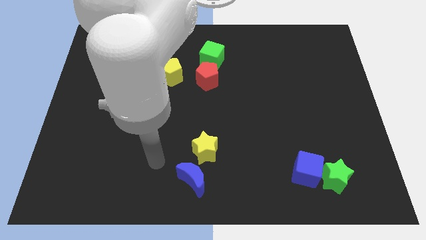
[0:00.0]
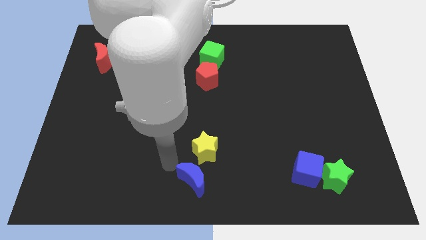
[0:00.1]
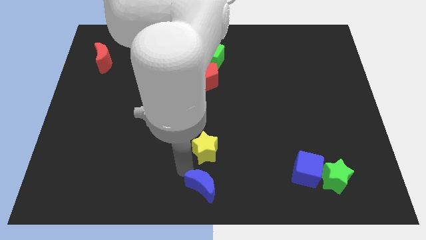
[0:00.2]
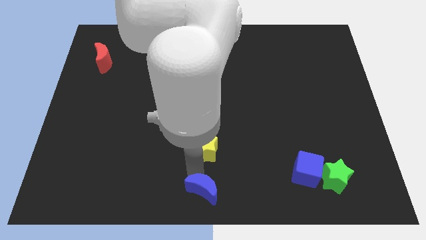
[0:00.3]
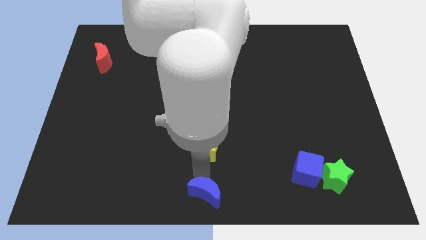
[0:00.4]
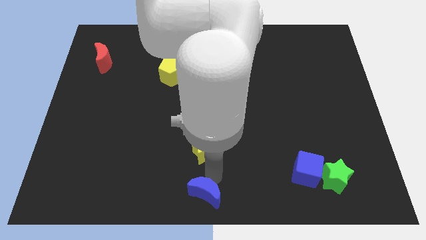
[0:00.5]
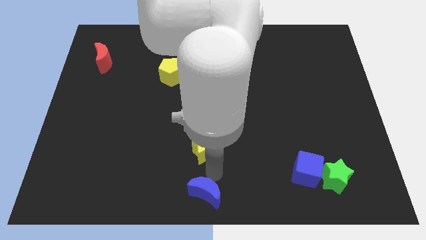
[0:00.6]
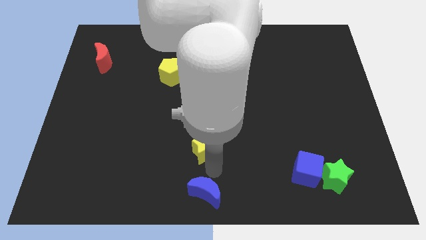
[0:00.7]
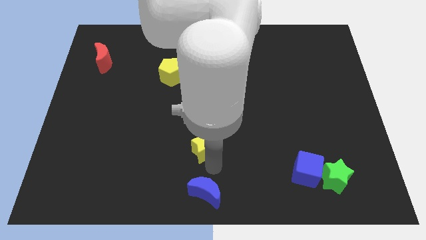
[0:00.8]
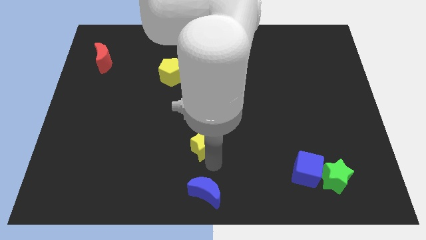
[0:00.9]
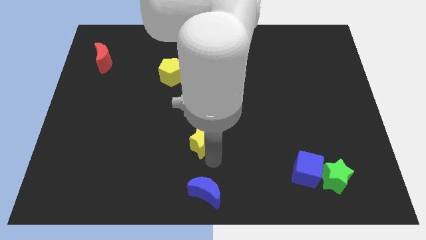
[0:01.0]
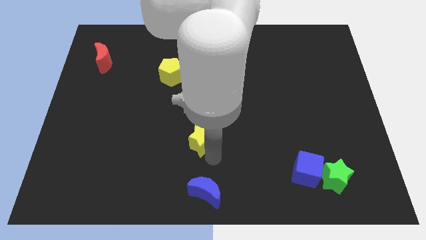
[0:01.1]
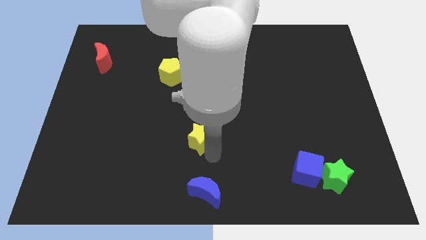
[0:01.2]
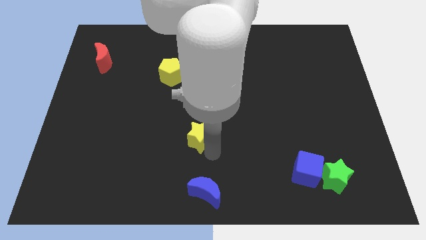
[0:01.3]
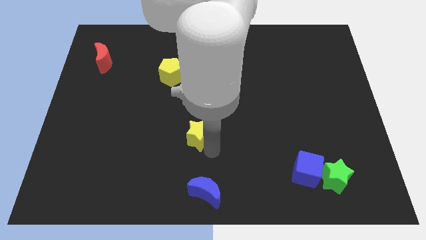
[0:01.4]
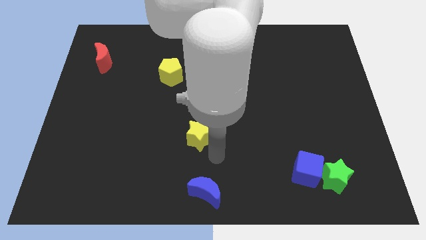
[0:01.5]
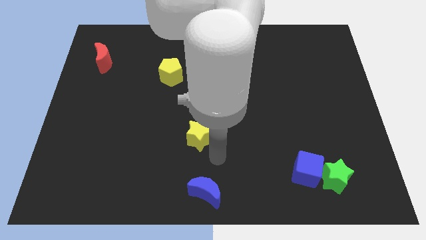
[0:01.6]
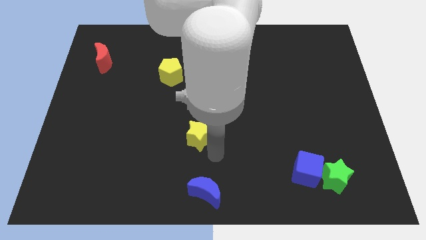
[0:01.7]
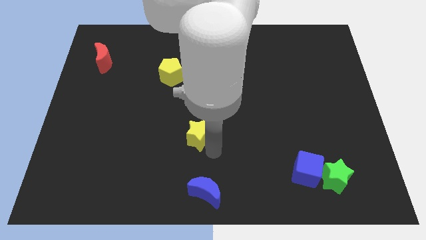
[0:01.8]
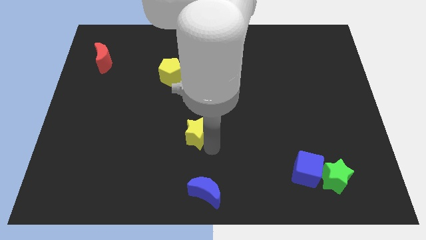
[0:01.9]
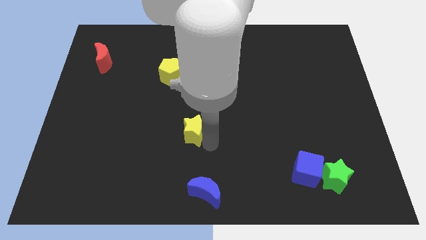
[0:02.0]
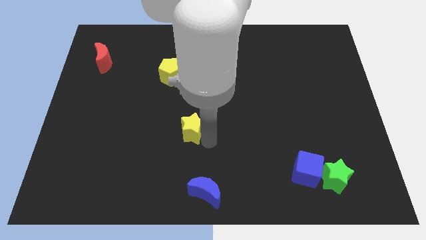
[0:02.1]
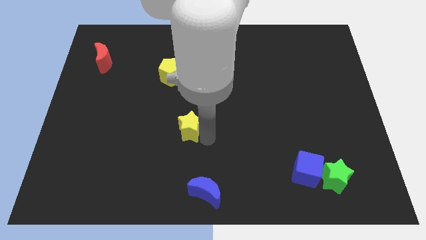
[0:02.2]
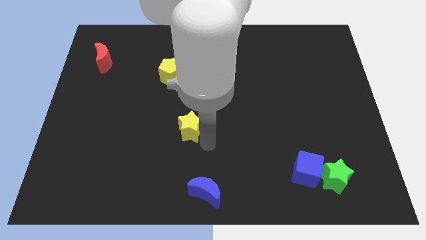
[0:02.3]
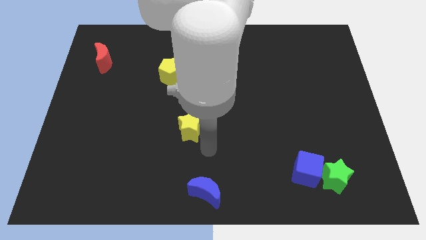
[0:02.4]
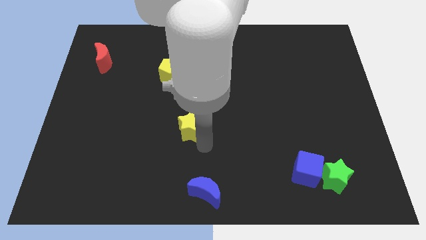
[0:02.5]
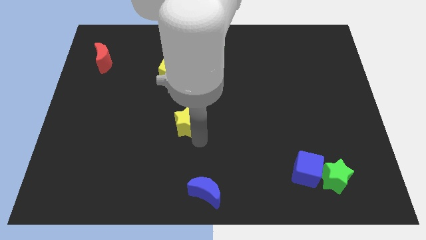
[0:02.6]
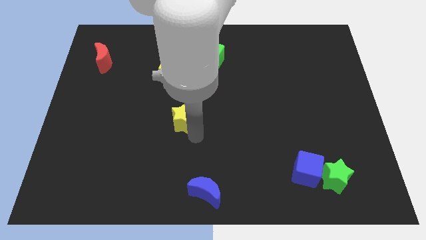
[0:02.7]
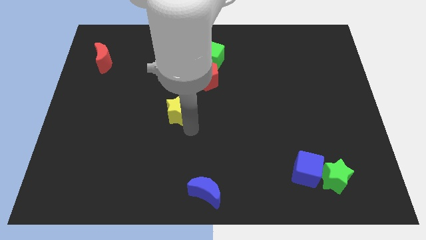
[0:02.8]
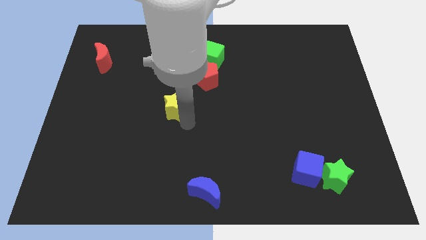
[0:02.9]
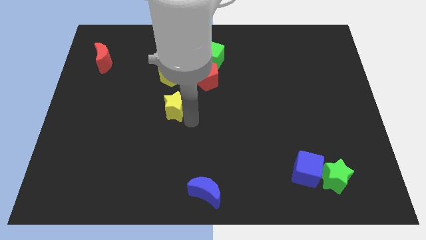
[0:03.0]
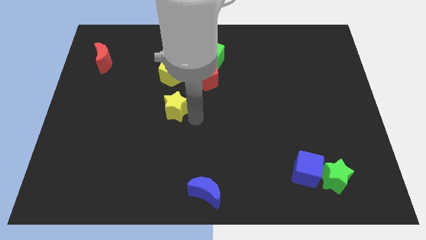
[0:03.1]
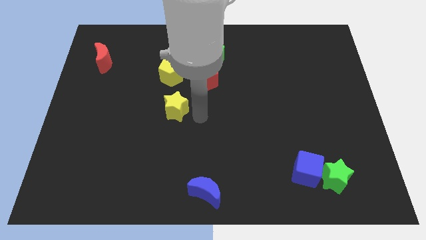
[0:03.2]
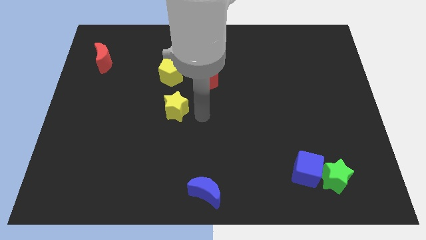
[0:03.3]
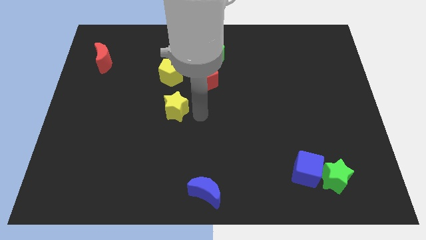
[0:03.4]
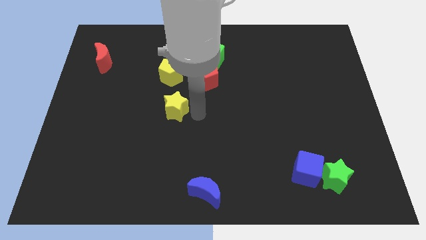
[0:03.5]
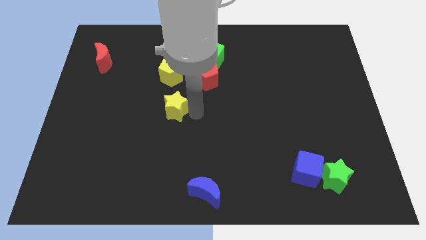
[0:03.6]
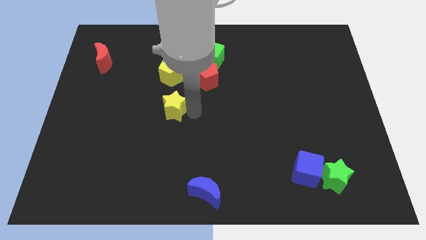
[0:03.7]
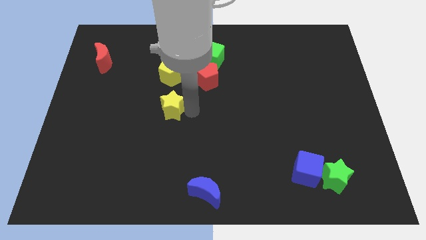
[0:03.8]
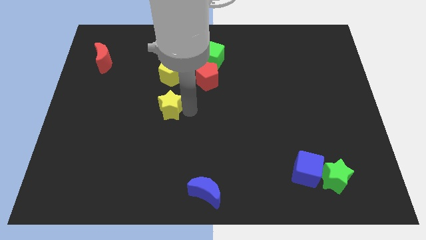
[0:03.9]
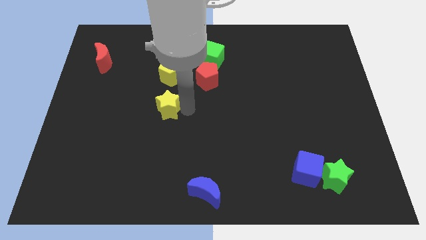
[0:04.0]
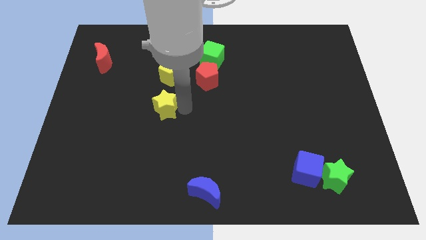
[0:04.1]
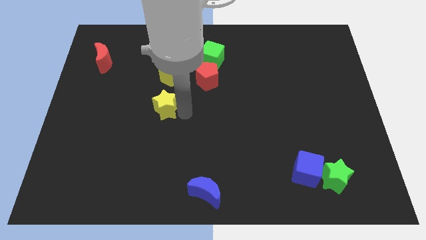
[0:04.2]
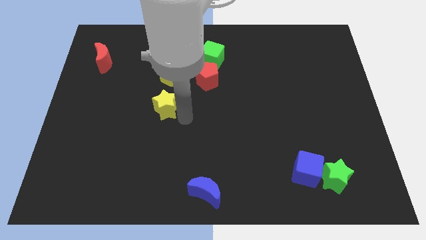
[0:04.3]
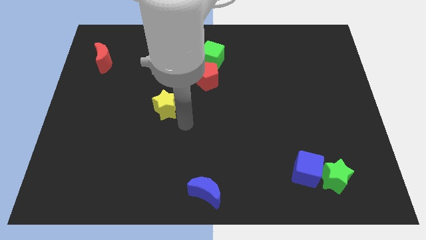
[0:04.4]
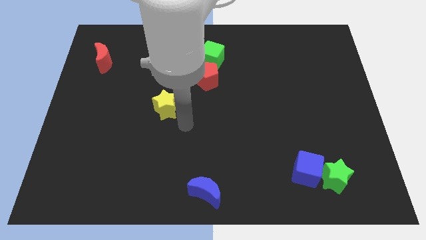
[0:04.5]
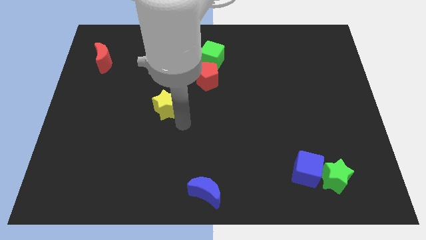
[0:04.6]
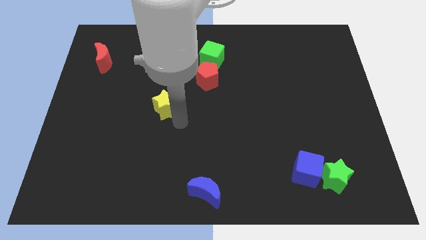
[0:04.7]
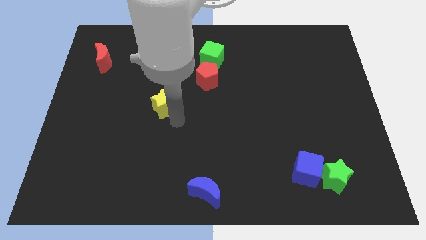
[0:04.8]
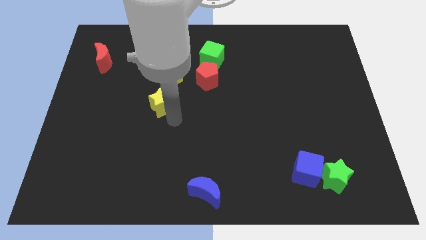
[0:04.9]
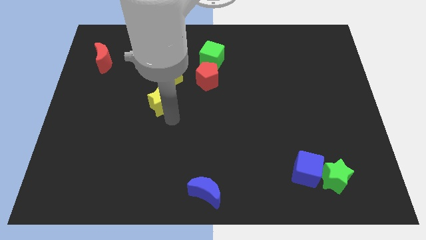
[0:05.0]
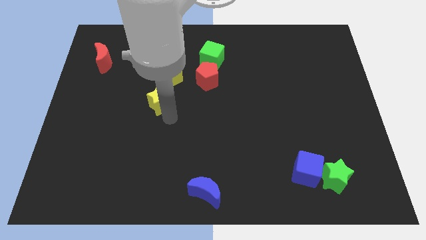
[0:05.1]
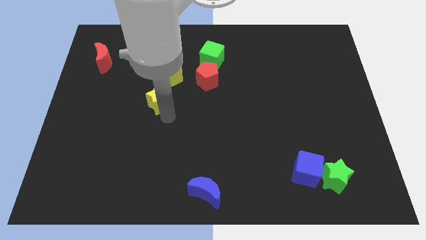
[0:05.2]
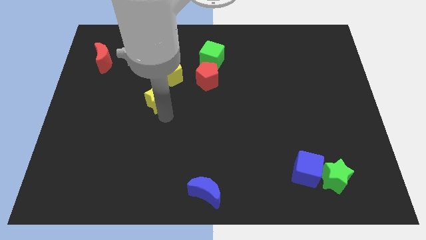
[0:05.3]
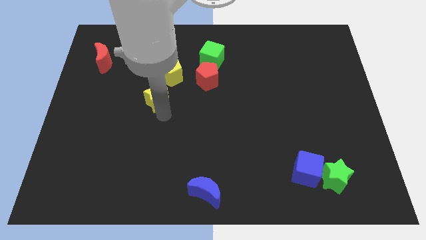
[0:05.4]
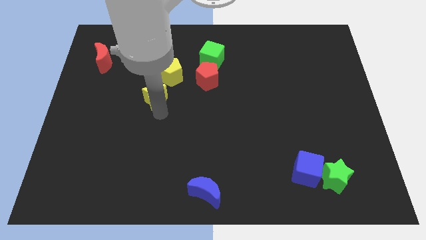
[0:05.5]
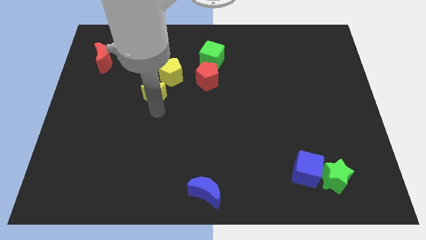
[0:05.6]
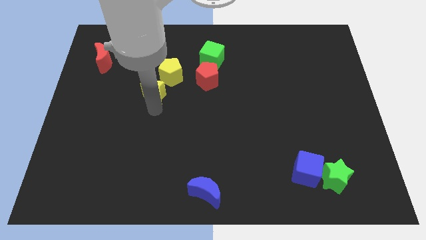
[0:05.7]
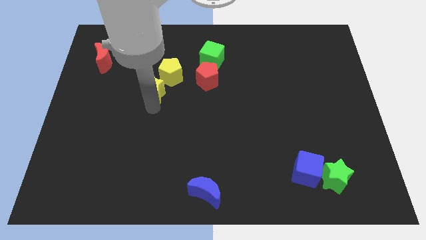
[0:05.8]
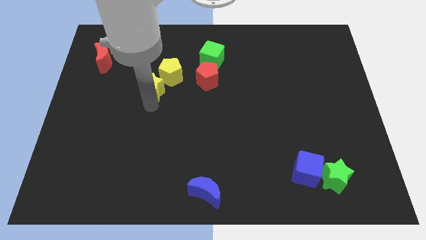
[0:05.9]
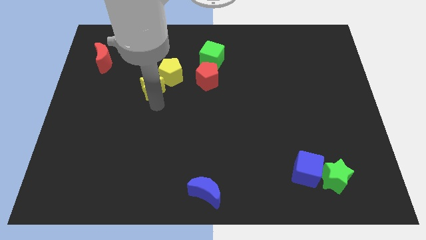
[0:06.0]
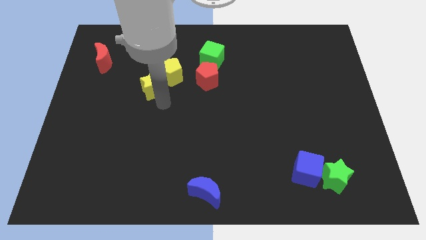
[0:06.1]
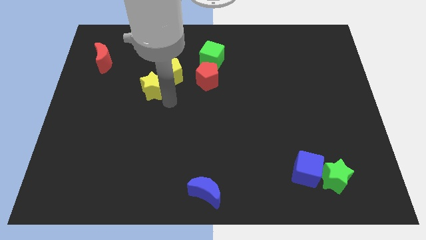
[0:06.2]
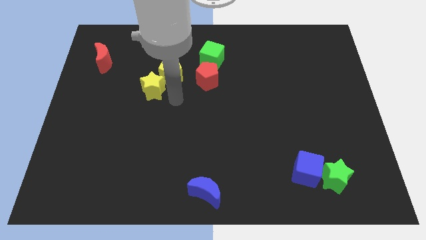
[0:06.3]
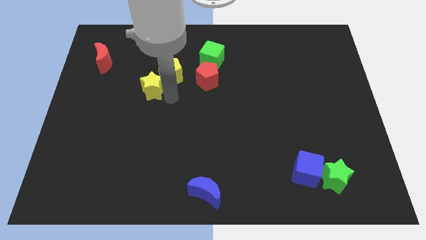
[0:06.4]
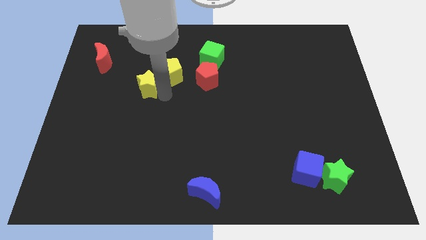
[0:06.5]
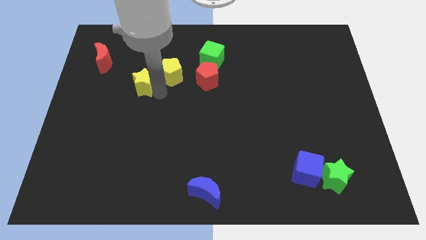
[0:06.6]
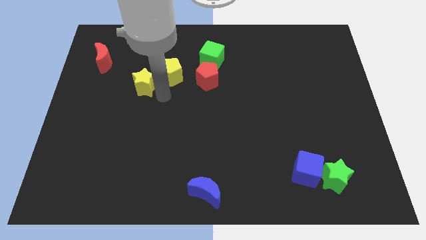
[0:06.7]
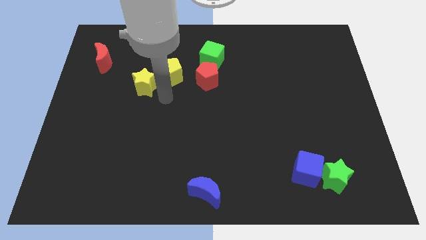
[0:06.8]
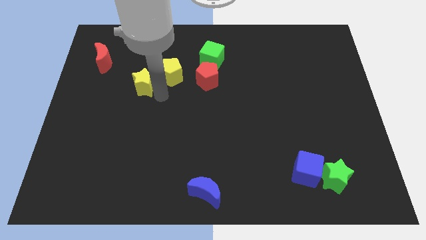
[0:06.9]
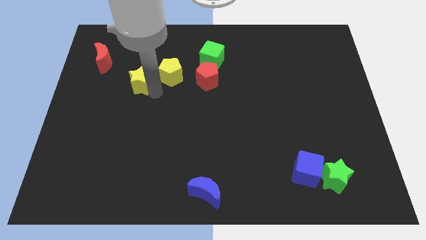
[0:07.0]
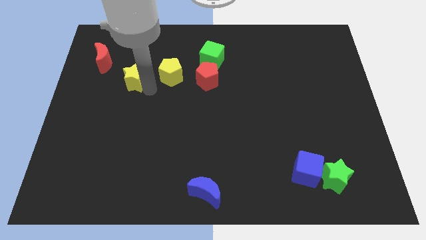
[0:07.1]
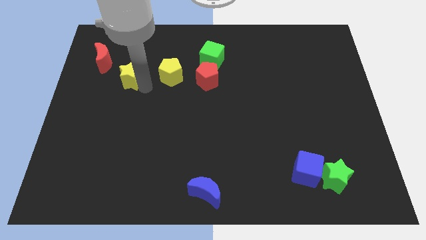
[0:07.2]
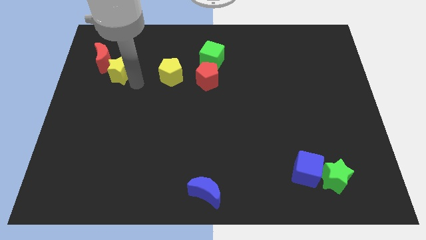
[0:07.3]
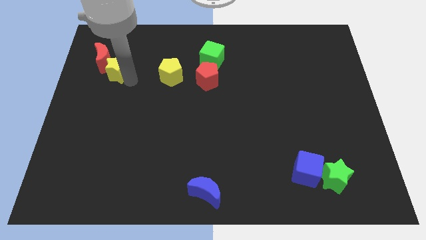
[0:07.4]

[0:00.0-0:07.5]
put the yellow star next to the red moon
